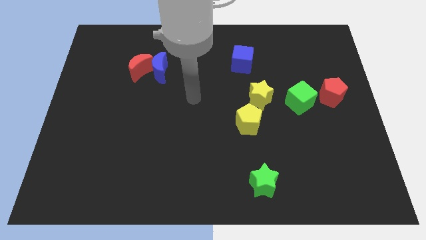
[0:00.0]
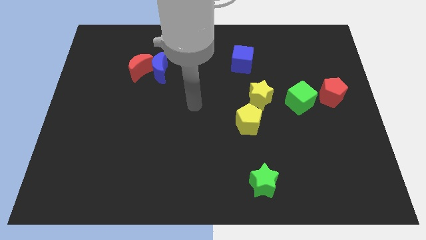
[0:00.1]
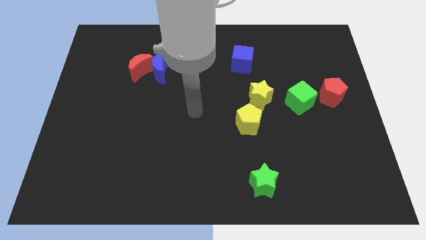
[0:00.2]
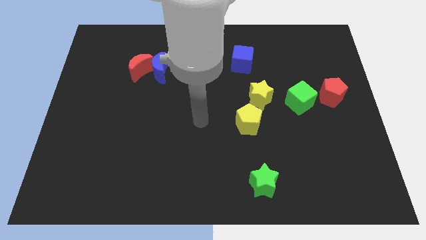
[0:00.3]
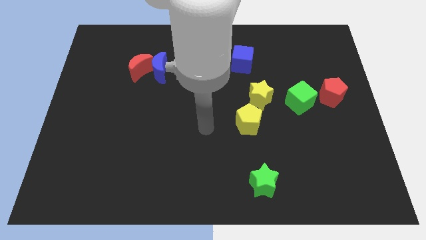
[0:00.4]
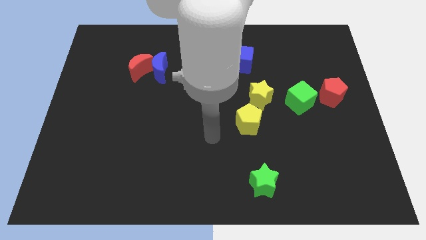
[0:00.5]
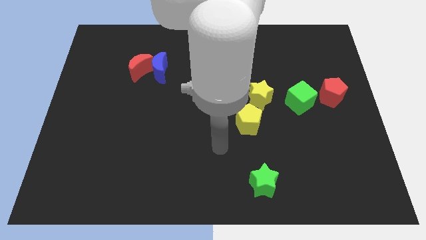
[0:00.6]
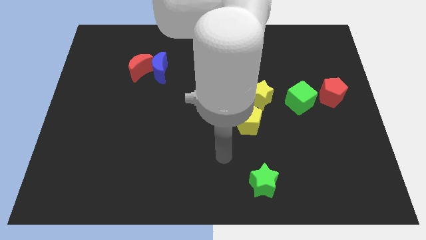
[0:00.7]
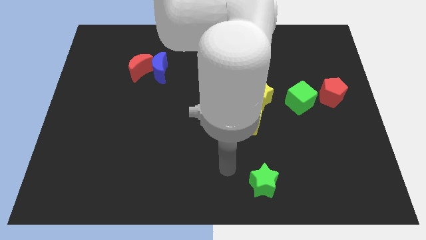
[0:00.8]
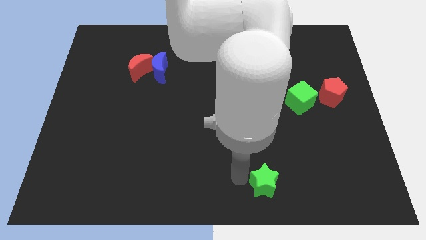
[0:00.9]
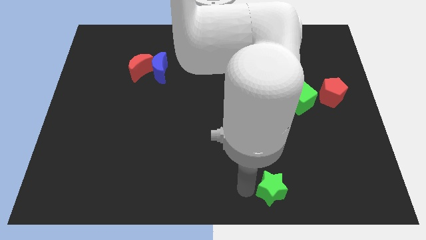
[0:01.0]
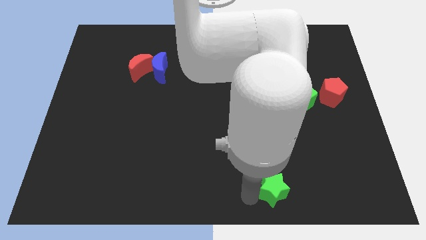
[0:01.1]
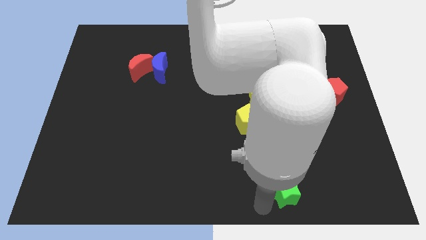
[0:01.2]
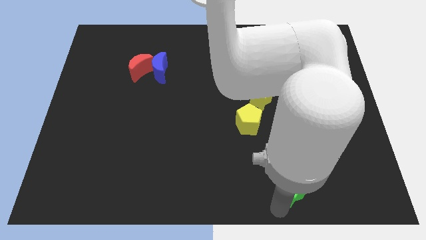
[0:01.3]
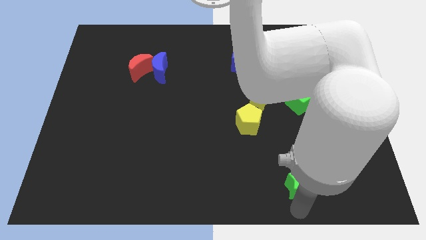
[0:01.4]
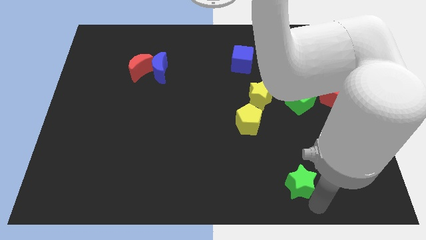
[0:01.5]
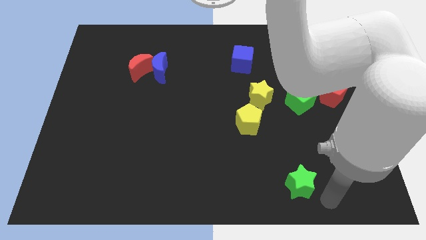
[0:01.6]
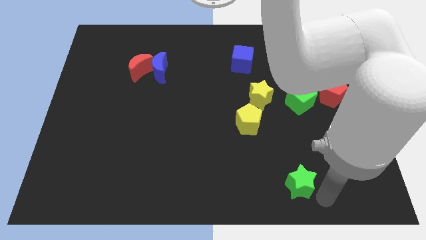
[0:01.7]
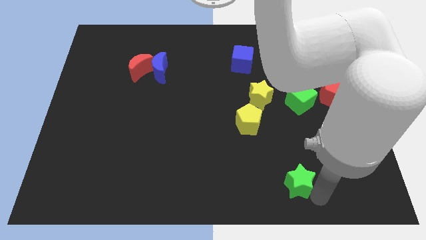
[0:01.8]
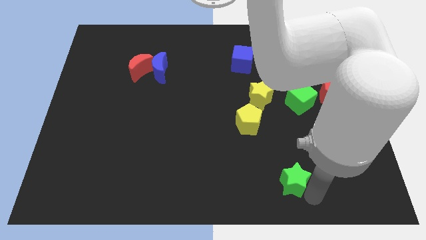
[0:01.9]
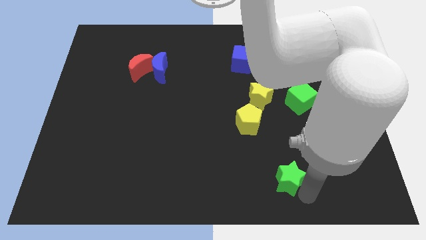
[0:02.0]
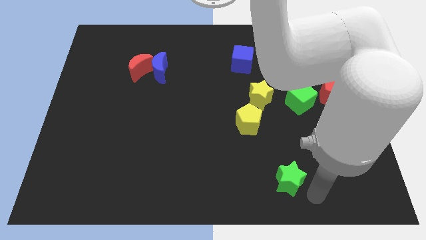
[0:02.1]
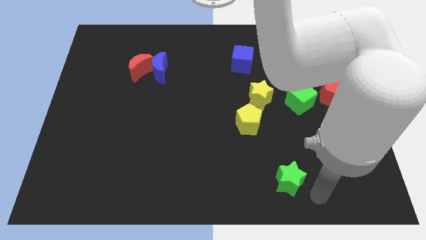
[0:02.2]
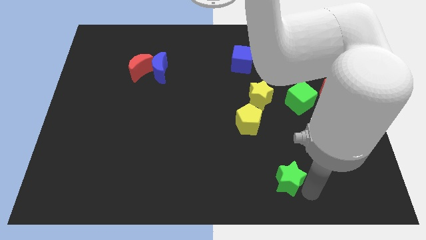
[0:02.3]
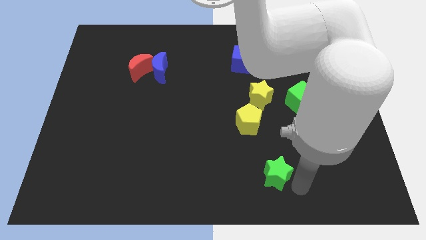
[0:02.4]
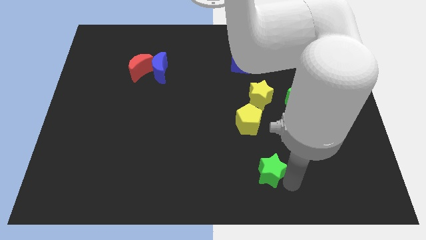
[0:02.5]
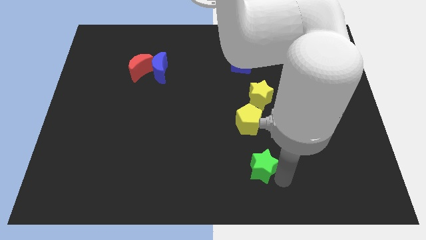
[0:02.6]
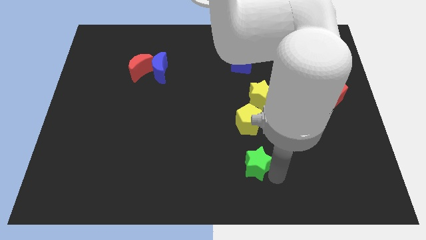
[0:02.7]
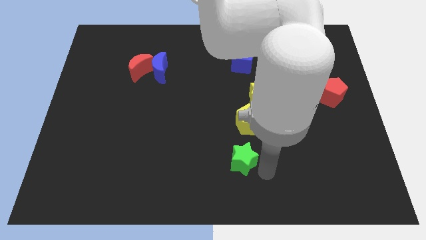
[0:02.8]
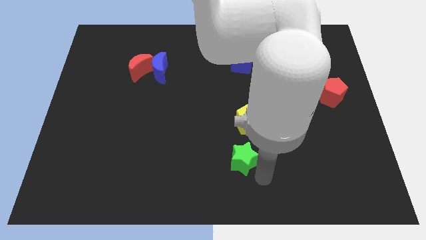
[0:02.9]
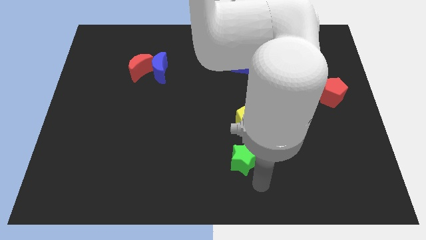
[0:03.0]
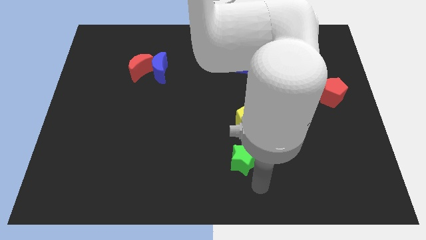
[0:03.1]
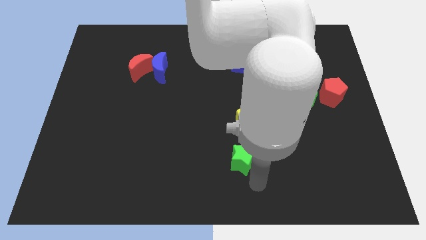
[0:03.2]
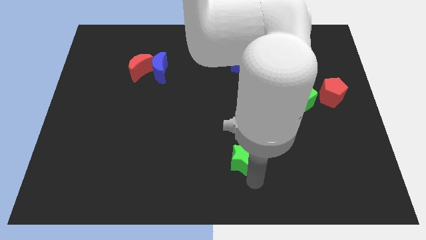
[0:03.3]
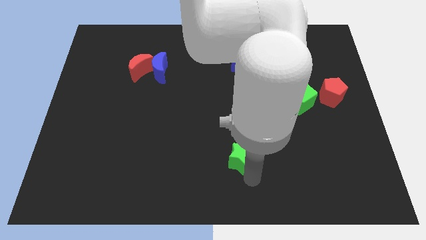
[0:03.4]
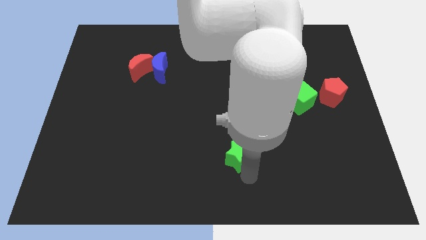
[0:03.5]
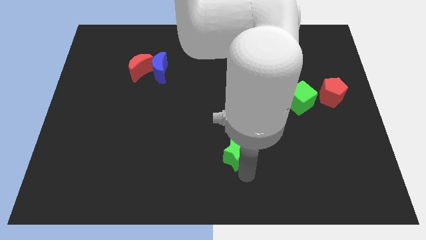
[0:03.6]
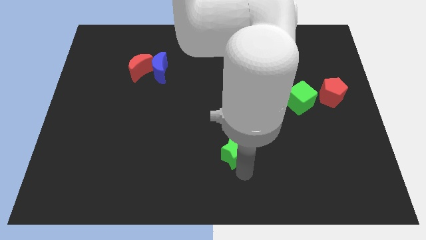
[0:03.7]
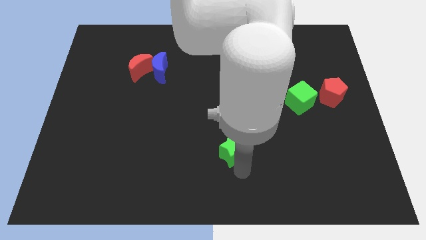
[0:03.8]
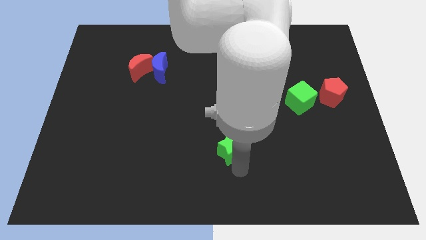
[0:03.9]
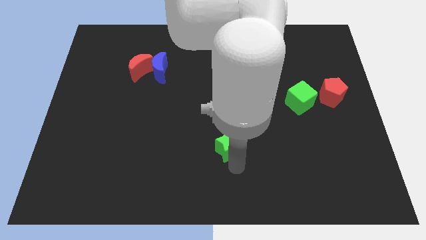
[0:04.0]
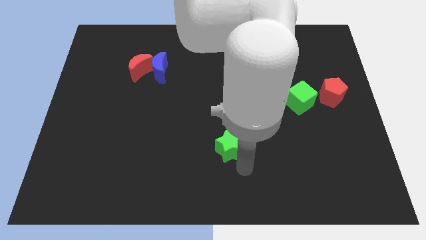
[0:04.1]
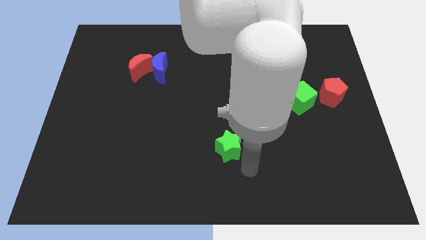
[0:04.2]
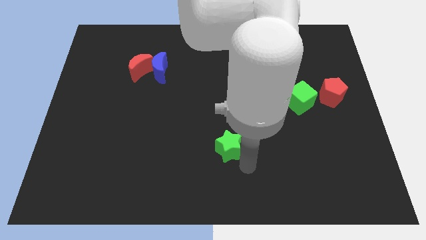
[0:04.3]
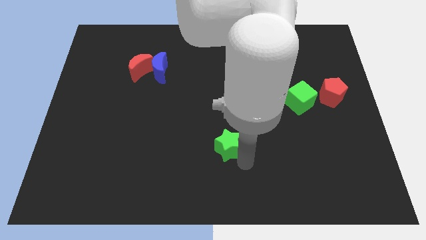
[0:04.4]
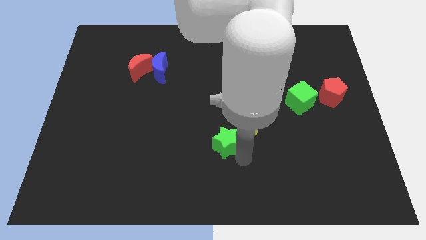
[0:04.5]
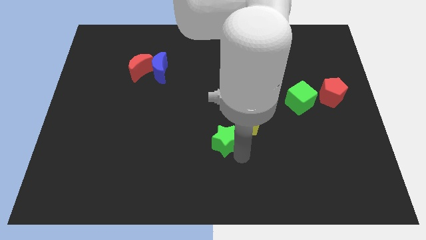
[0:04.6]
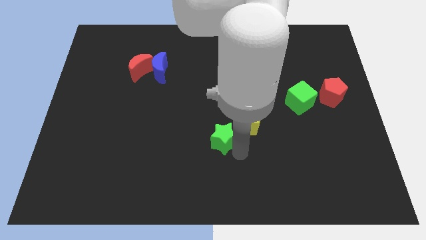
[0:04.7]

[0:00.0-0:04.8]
slide the green star to the left of the yellow pentagon

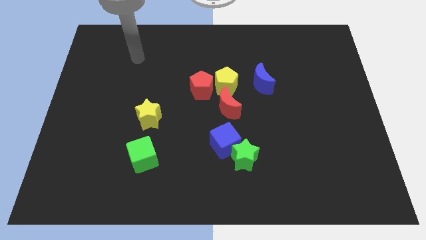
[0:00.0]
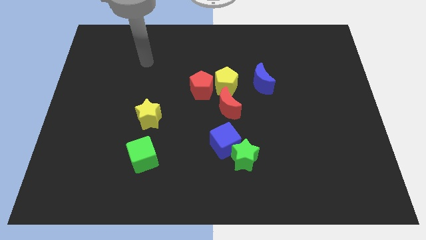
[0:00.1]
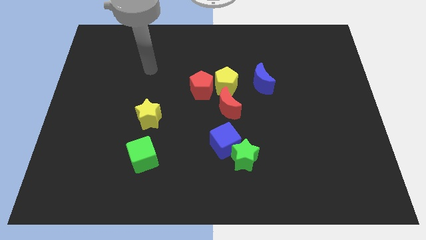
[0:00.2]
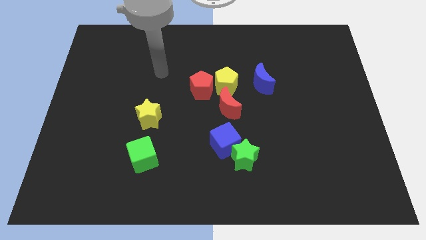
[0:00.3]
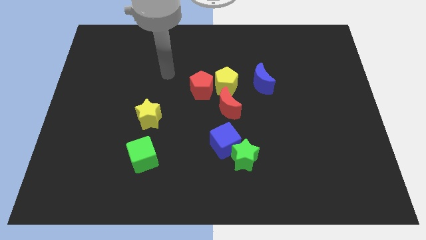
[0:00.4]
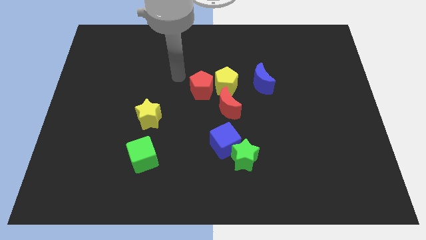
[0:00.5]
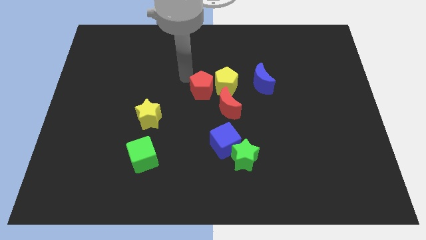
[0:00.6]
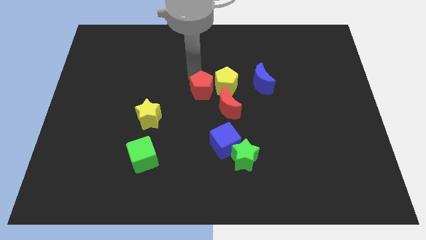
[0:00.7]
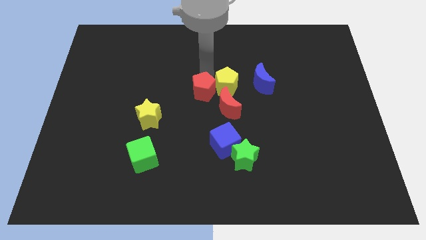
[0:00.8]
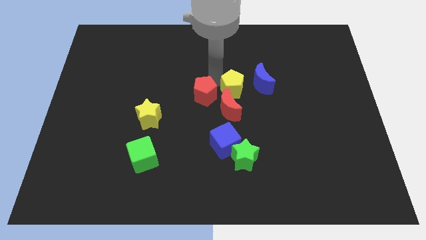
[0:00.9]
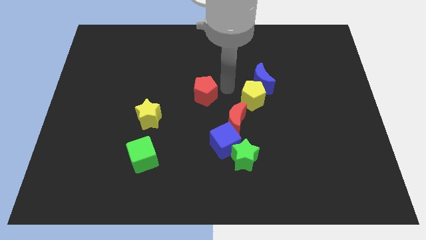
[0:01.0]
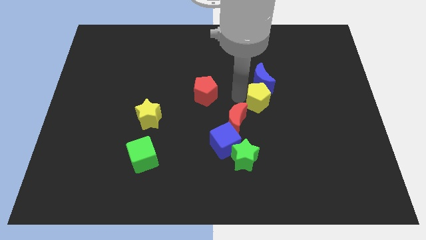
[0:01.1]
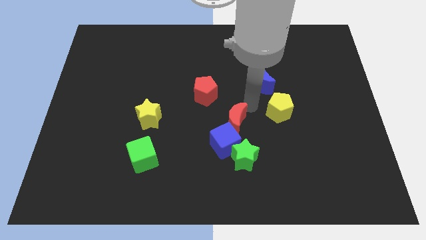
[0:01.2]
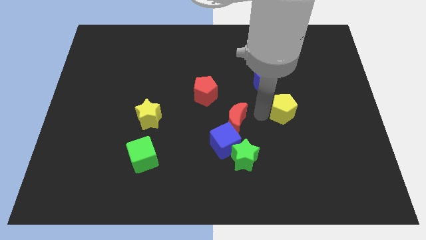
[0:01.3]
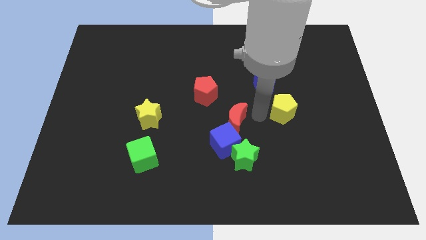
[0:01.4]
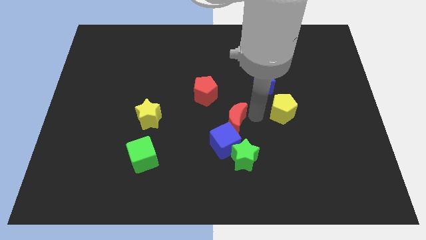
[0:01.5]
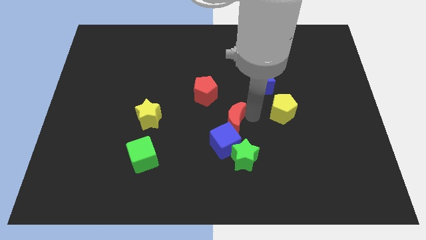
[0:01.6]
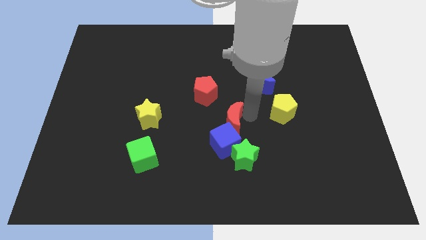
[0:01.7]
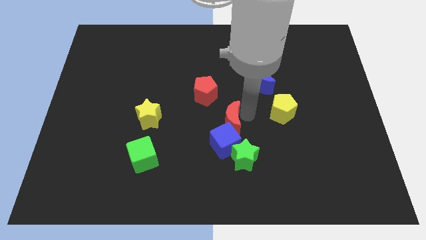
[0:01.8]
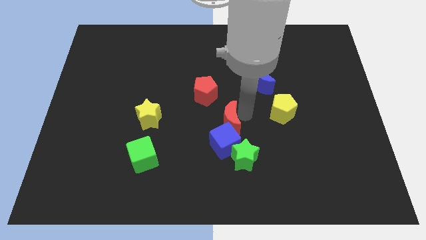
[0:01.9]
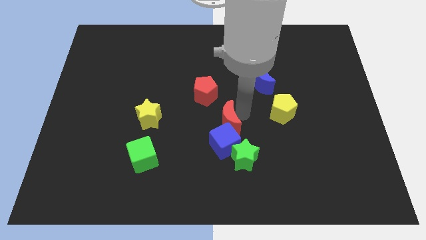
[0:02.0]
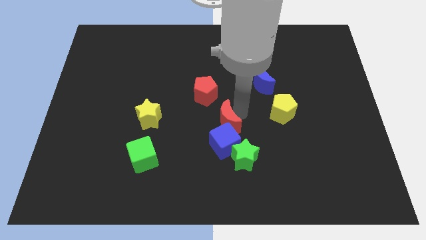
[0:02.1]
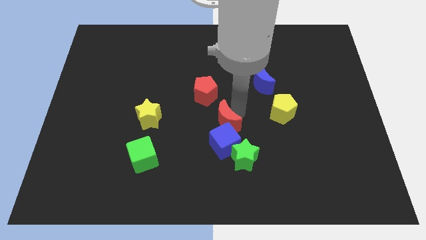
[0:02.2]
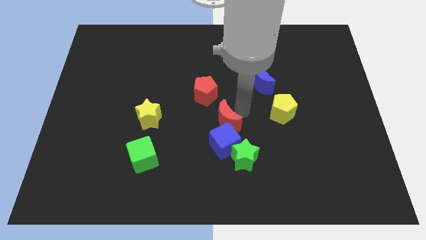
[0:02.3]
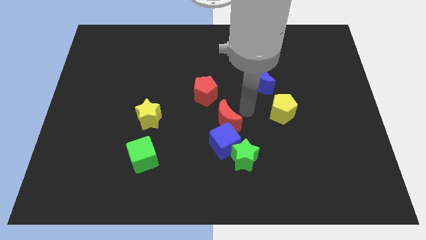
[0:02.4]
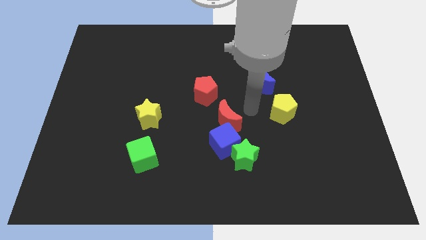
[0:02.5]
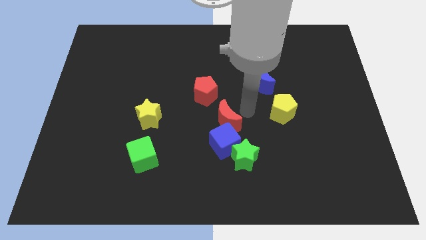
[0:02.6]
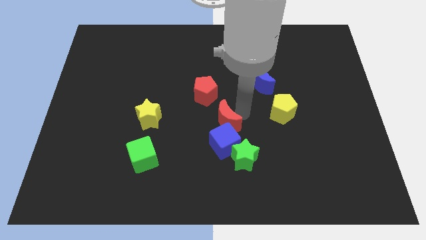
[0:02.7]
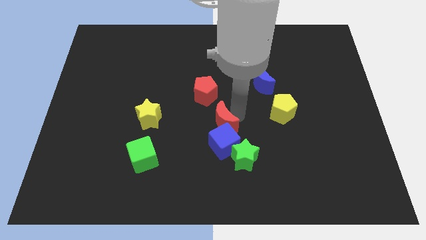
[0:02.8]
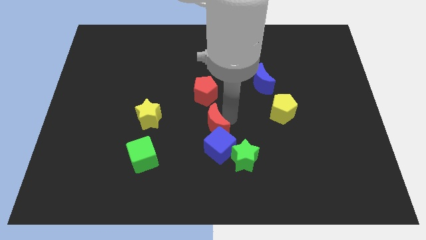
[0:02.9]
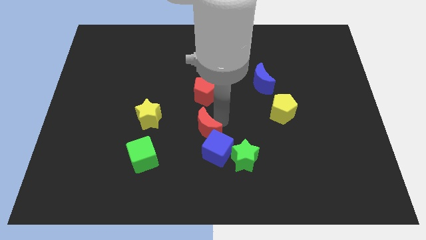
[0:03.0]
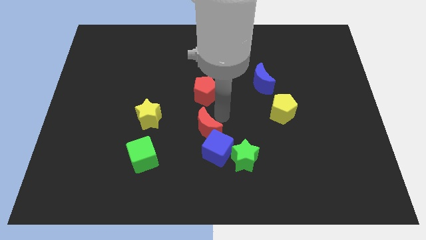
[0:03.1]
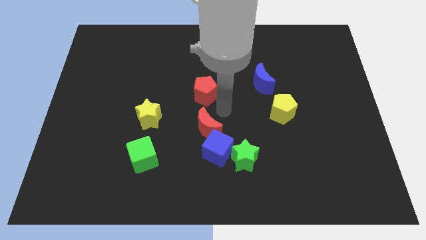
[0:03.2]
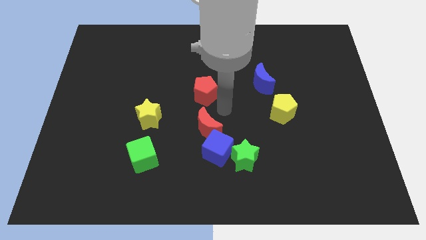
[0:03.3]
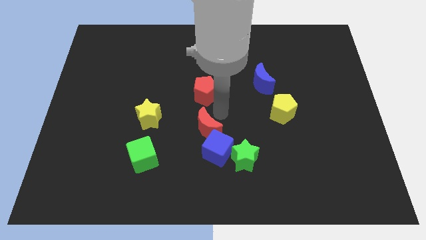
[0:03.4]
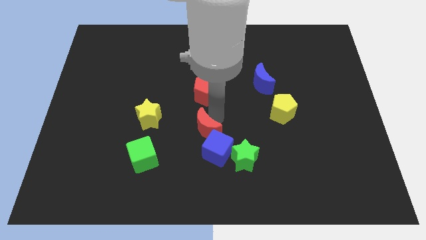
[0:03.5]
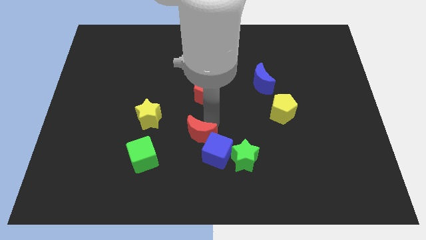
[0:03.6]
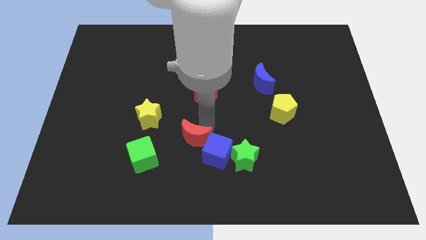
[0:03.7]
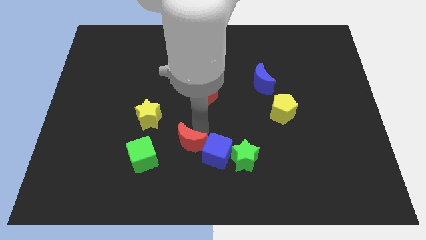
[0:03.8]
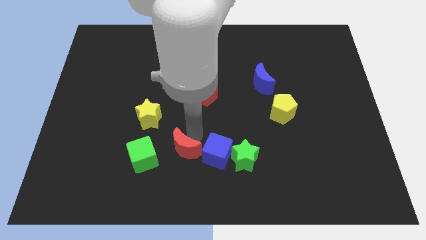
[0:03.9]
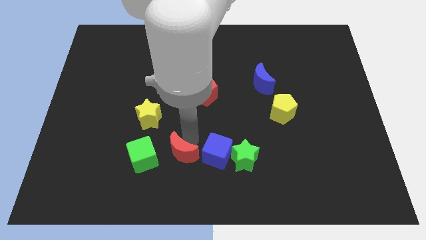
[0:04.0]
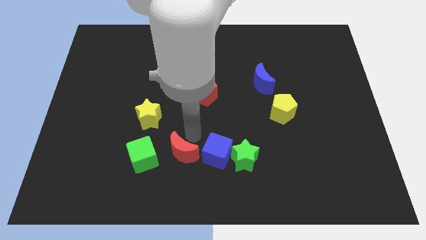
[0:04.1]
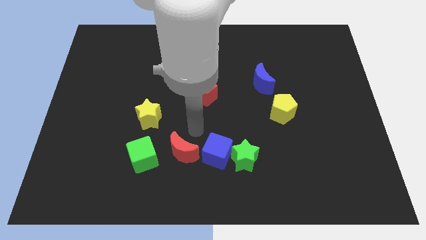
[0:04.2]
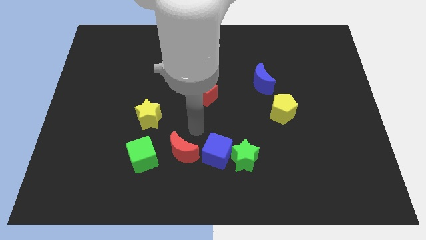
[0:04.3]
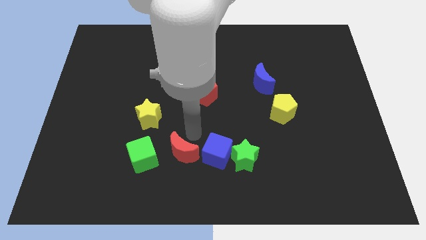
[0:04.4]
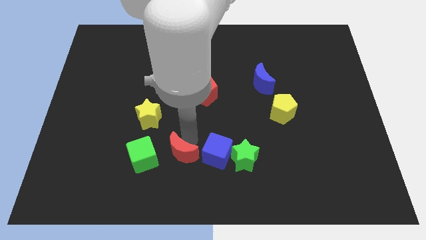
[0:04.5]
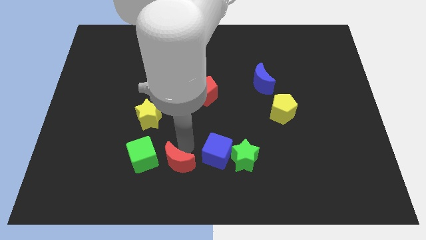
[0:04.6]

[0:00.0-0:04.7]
put the red moon diagonally down and to the right of the green cube
